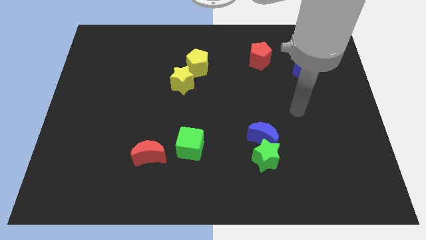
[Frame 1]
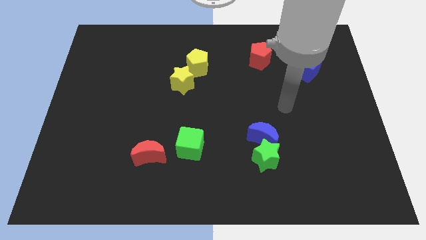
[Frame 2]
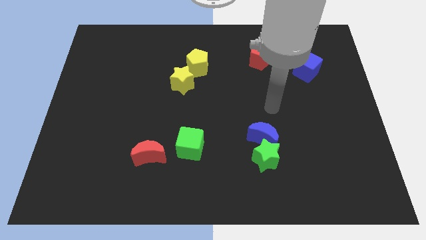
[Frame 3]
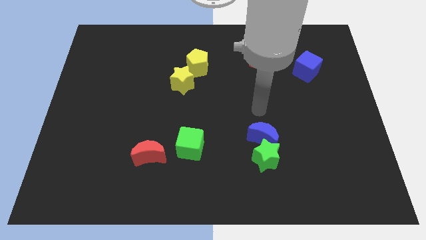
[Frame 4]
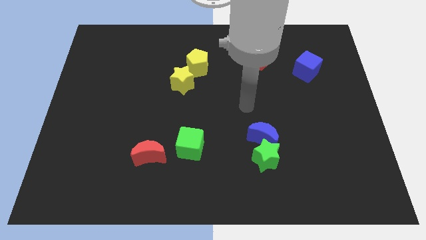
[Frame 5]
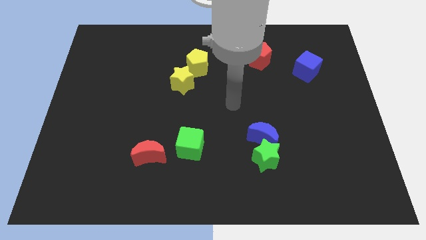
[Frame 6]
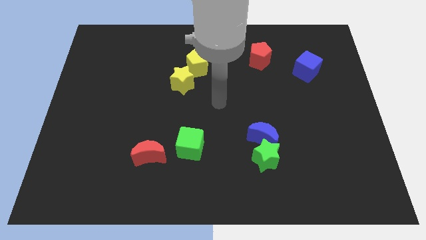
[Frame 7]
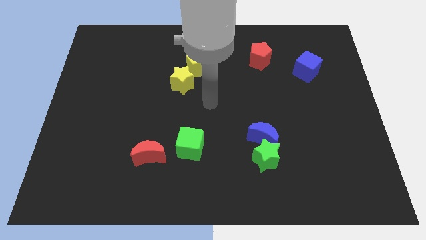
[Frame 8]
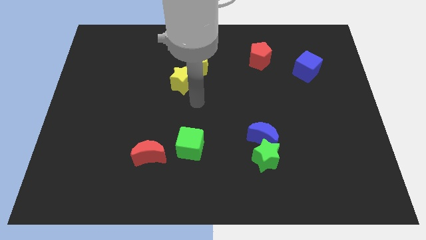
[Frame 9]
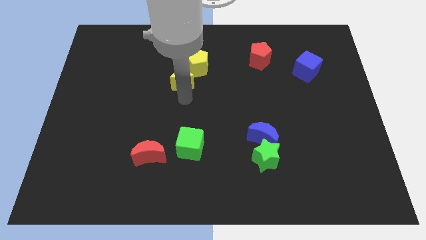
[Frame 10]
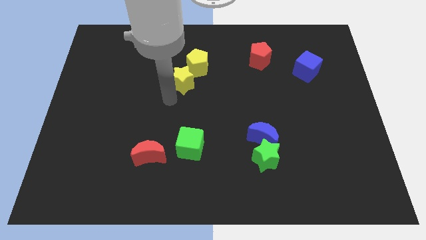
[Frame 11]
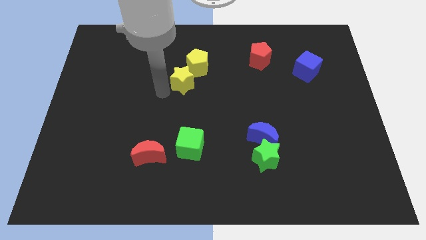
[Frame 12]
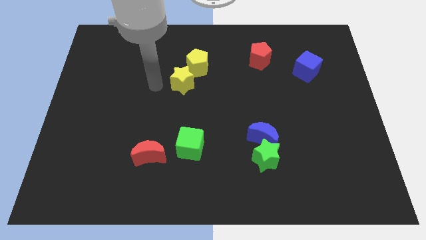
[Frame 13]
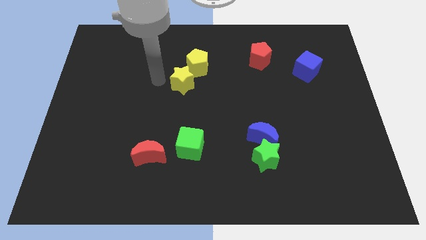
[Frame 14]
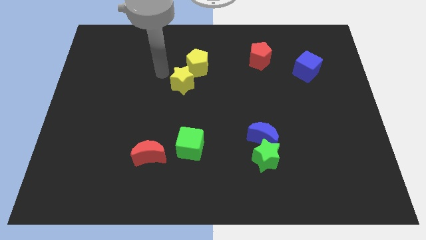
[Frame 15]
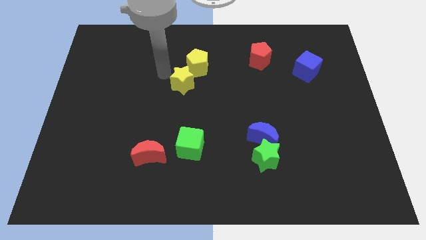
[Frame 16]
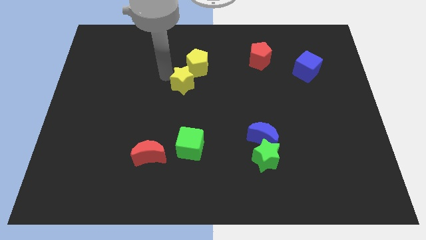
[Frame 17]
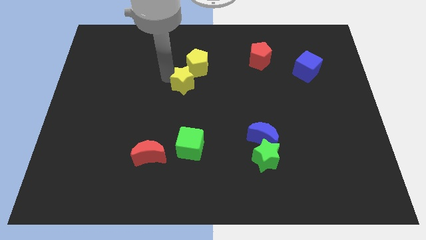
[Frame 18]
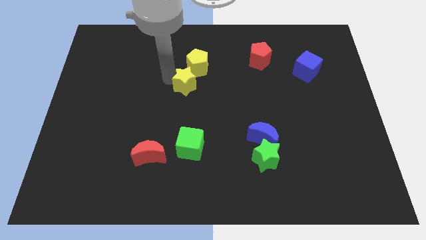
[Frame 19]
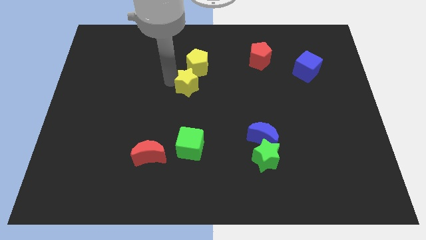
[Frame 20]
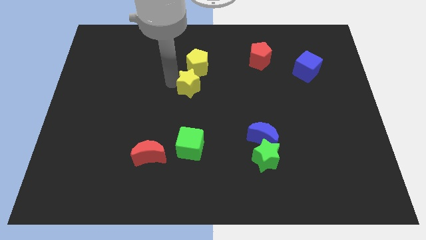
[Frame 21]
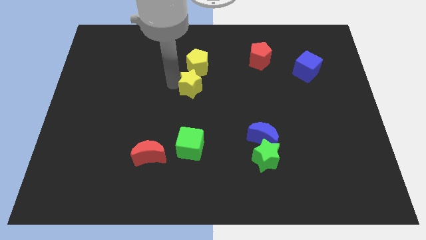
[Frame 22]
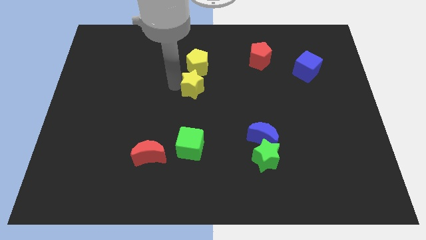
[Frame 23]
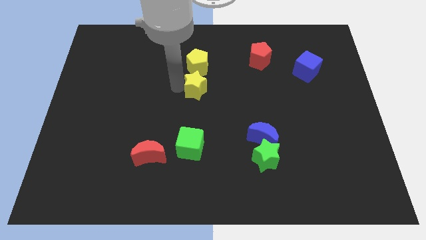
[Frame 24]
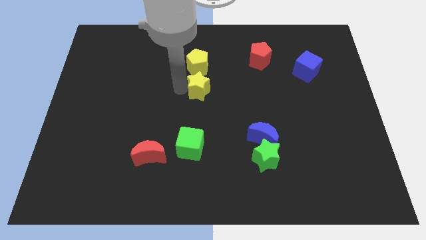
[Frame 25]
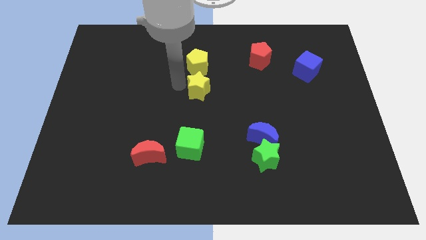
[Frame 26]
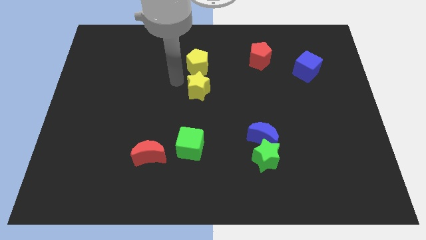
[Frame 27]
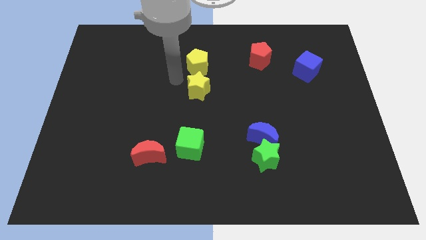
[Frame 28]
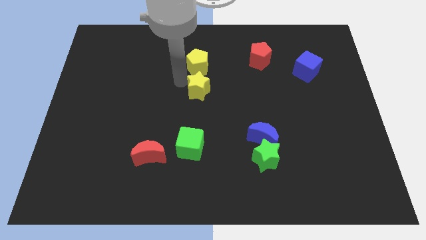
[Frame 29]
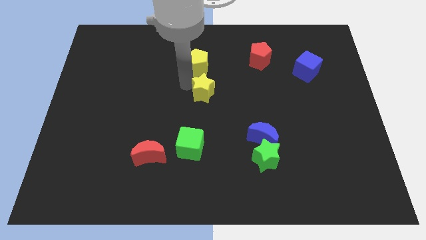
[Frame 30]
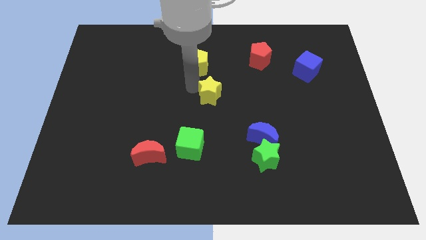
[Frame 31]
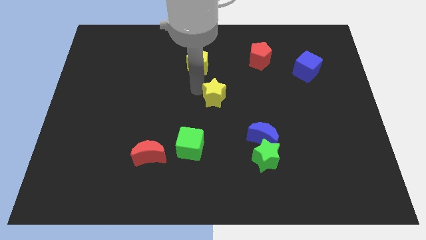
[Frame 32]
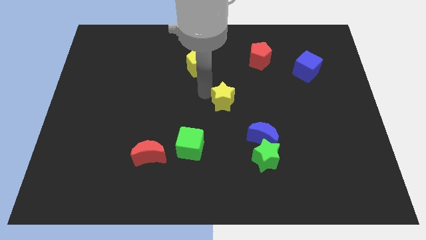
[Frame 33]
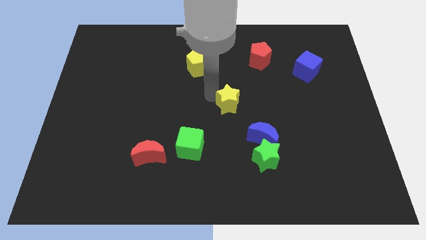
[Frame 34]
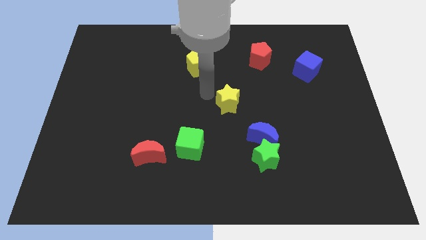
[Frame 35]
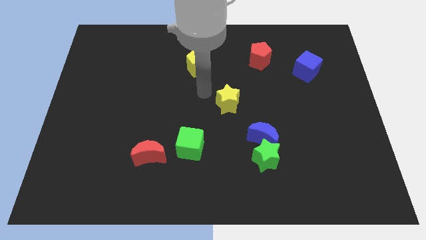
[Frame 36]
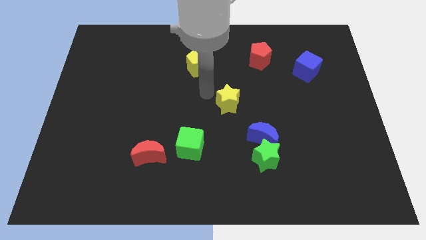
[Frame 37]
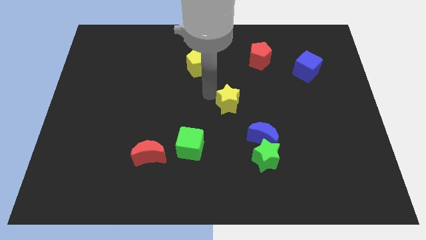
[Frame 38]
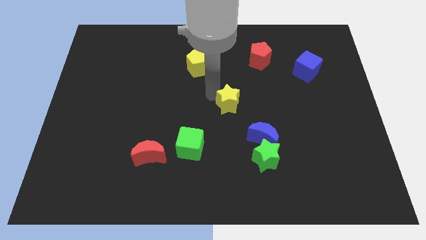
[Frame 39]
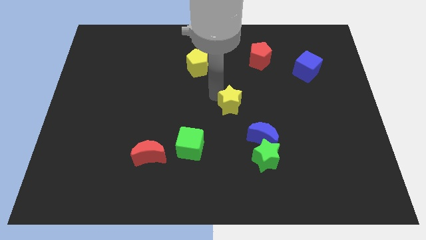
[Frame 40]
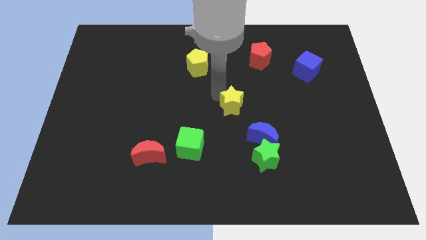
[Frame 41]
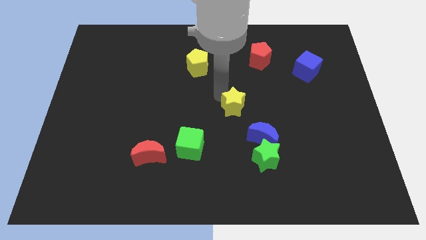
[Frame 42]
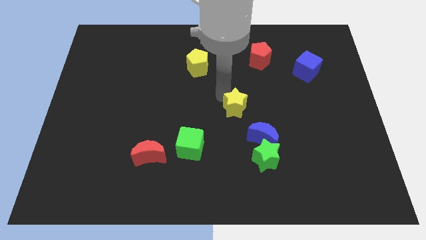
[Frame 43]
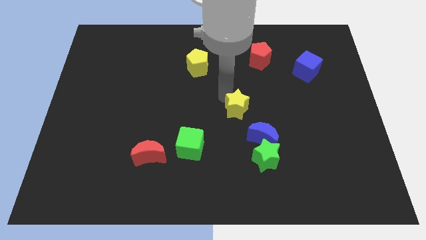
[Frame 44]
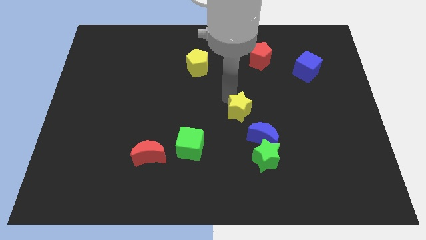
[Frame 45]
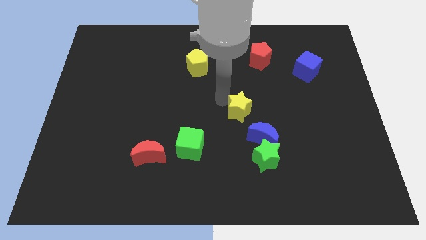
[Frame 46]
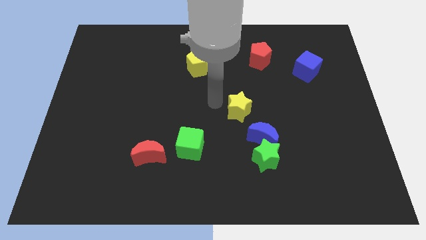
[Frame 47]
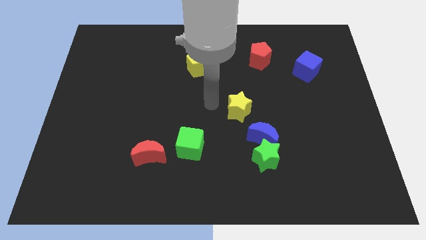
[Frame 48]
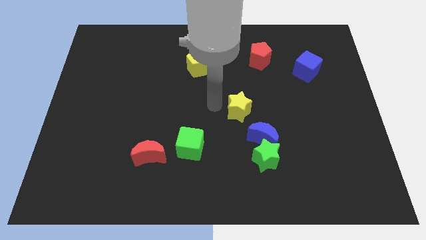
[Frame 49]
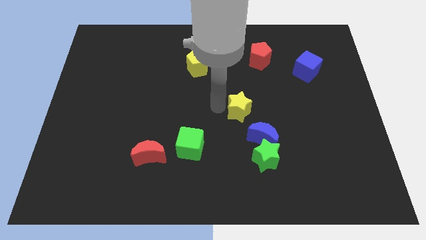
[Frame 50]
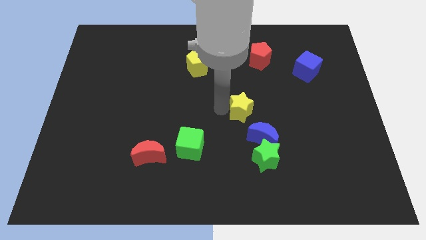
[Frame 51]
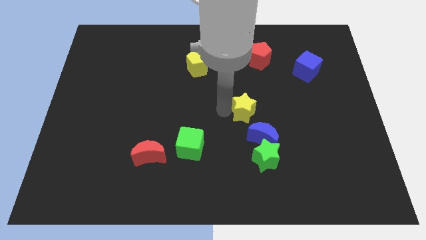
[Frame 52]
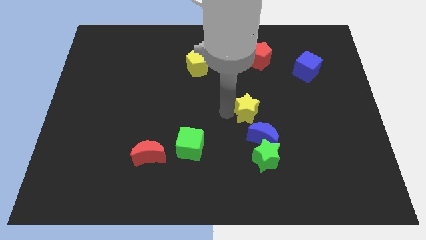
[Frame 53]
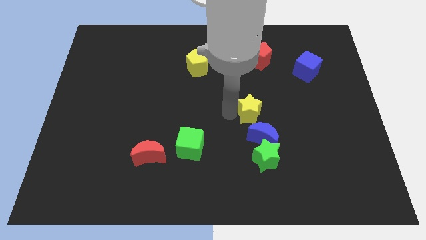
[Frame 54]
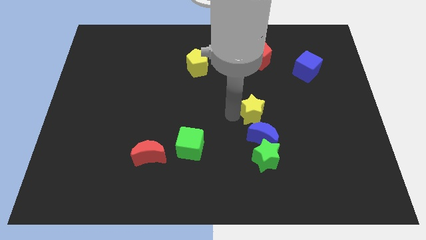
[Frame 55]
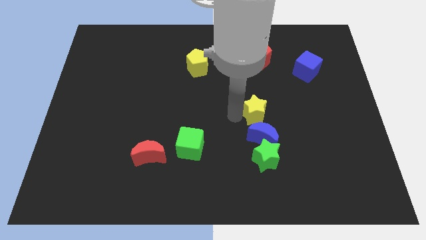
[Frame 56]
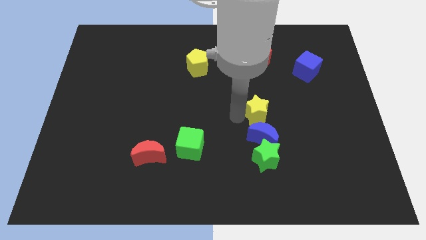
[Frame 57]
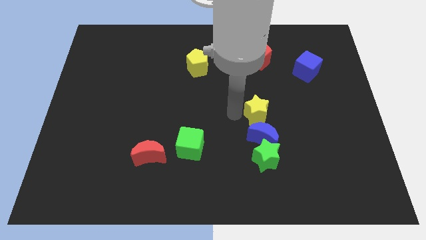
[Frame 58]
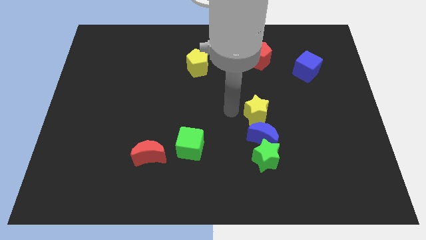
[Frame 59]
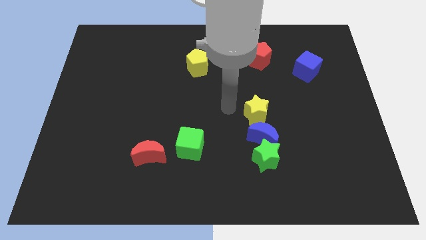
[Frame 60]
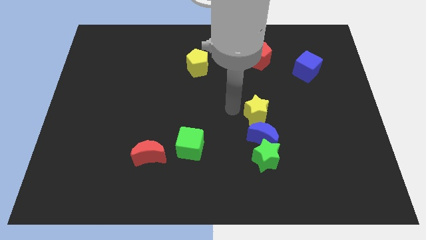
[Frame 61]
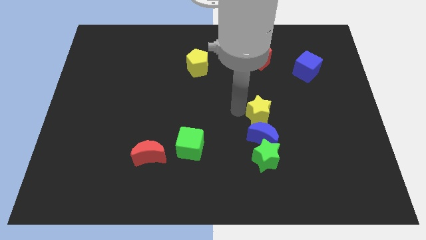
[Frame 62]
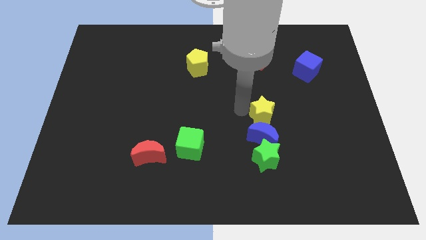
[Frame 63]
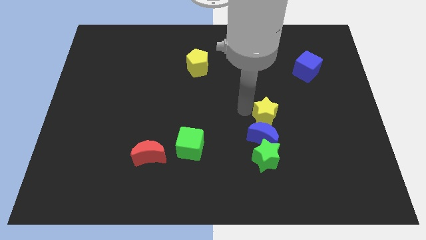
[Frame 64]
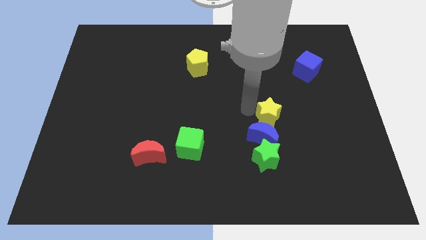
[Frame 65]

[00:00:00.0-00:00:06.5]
slide the yellow star diagonally down and to the right

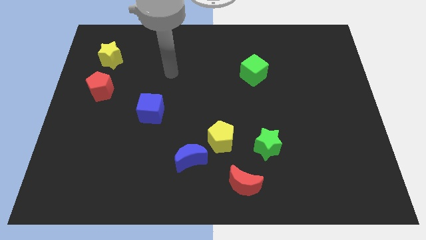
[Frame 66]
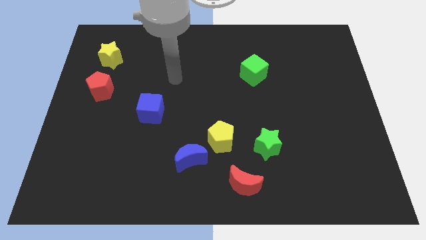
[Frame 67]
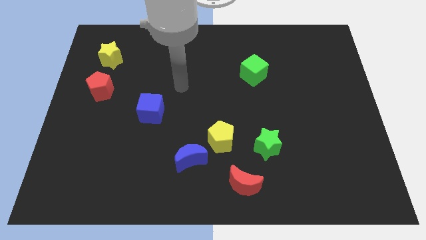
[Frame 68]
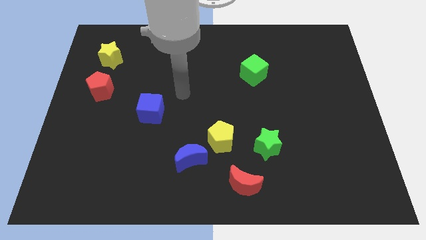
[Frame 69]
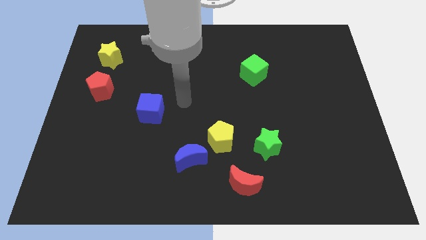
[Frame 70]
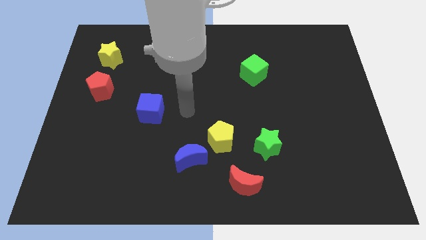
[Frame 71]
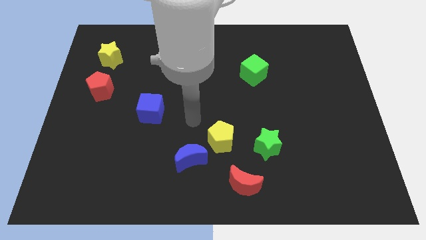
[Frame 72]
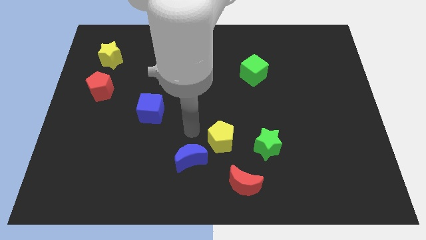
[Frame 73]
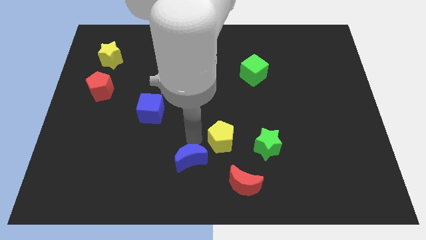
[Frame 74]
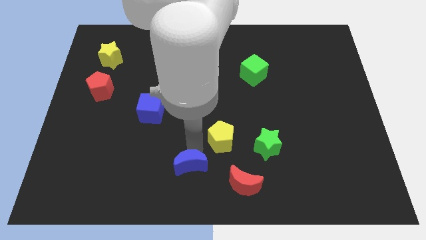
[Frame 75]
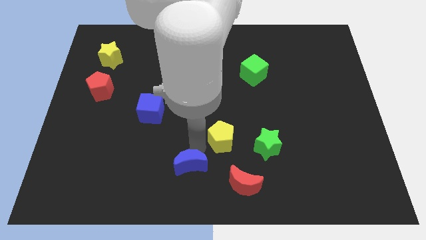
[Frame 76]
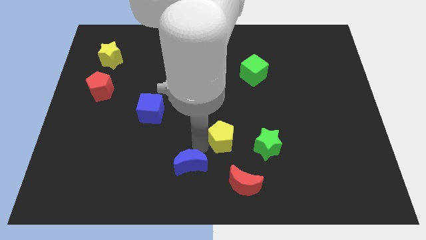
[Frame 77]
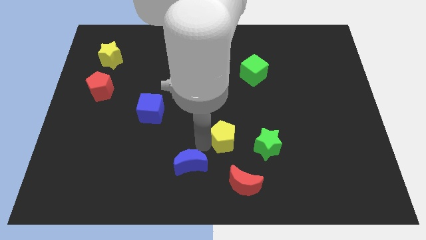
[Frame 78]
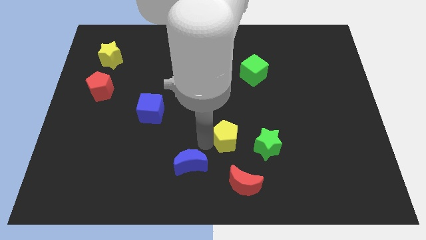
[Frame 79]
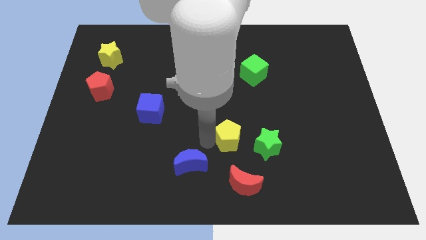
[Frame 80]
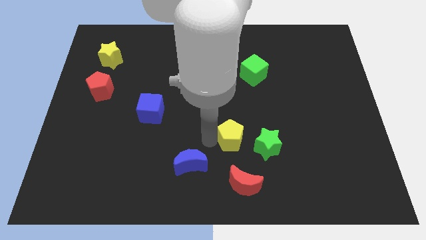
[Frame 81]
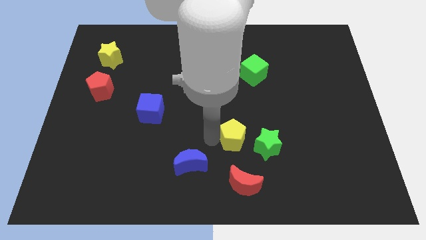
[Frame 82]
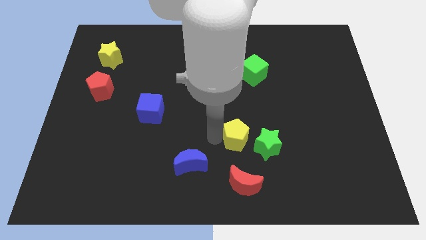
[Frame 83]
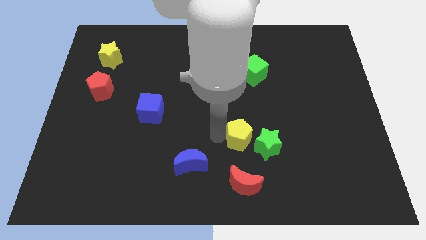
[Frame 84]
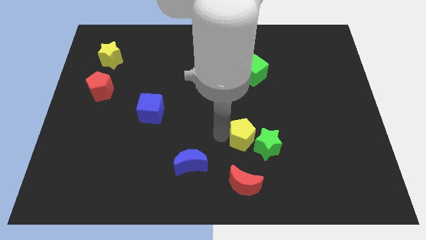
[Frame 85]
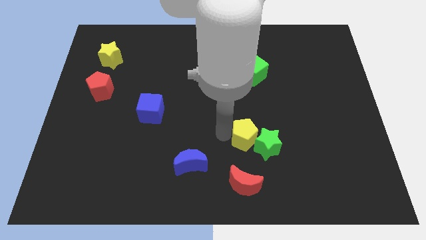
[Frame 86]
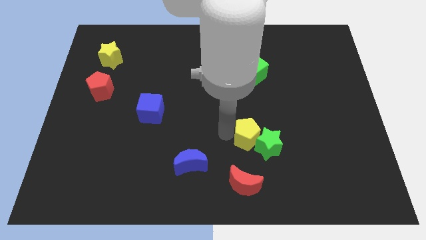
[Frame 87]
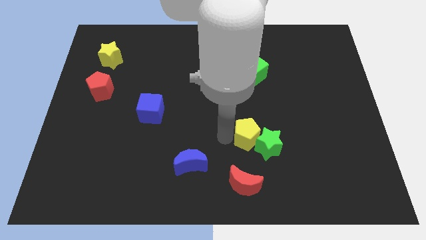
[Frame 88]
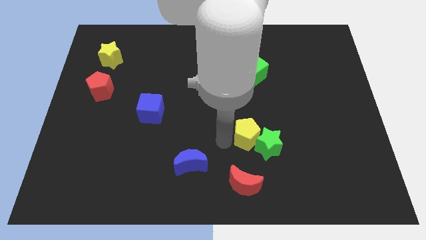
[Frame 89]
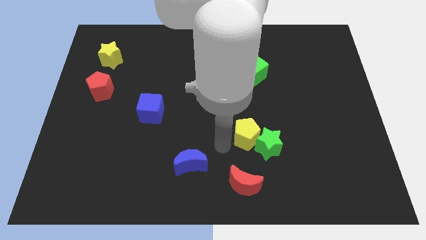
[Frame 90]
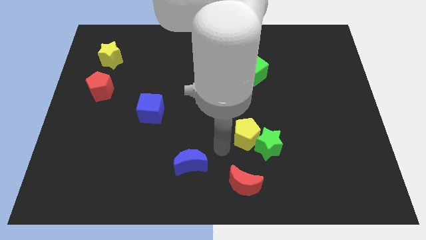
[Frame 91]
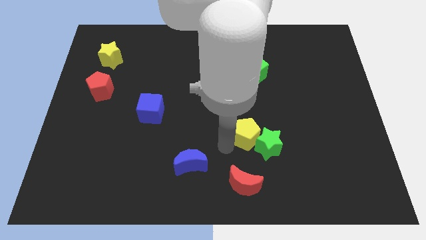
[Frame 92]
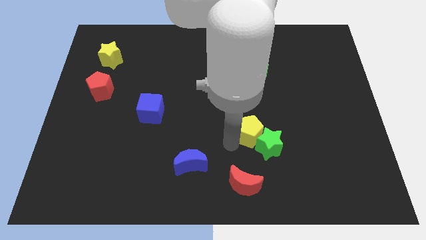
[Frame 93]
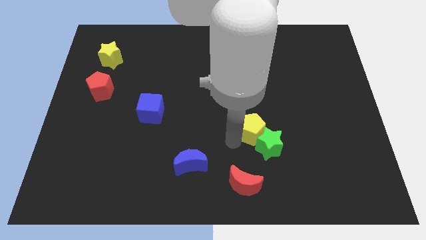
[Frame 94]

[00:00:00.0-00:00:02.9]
slightly slide the yellow pentagon to the right
